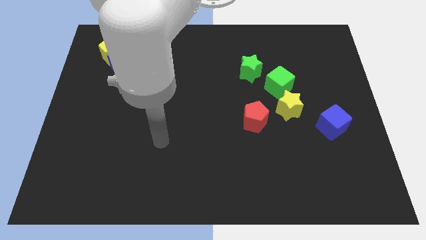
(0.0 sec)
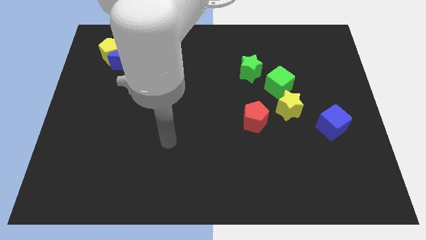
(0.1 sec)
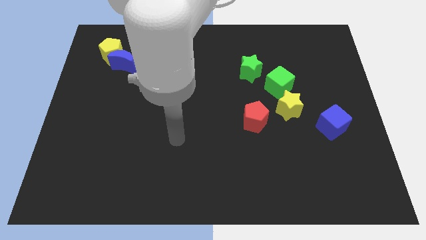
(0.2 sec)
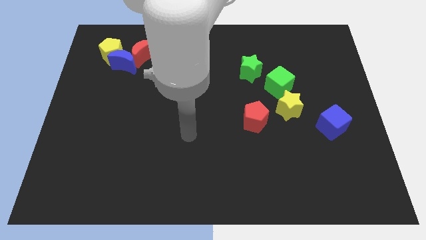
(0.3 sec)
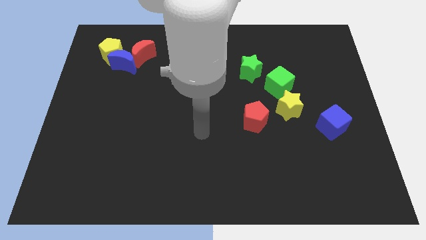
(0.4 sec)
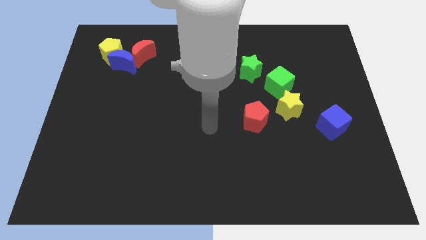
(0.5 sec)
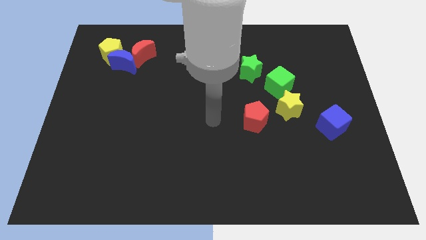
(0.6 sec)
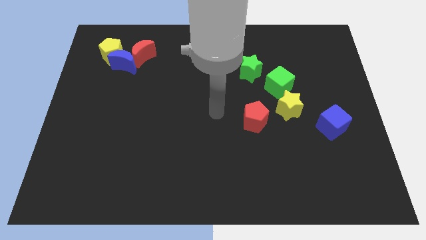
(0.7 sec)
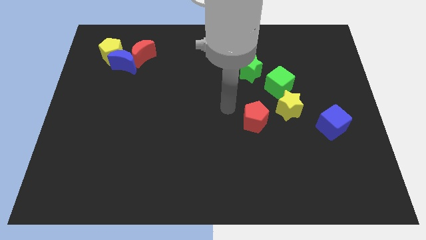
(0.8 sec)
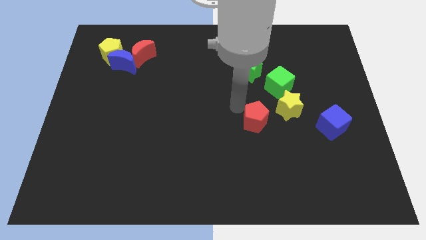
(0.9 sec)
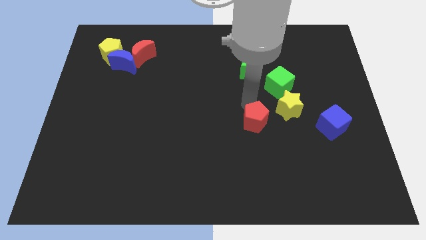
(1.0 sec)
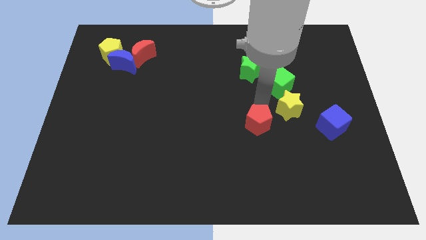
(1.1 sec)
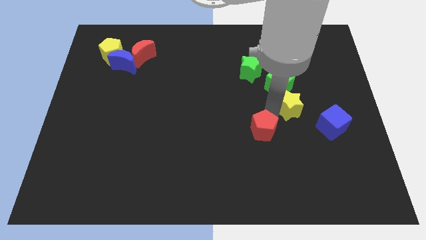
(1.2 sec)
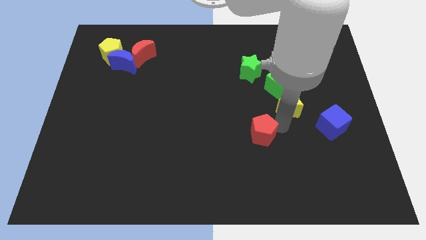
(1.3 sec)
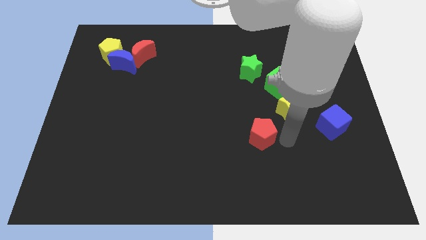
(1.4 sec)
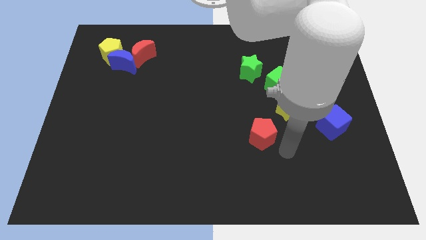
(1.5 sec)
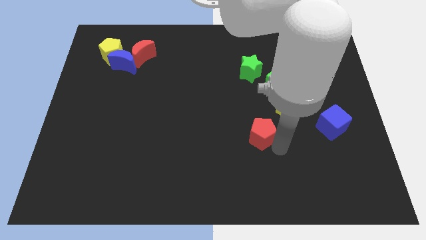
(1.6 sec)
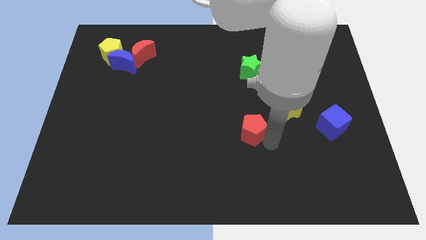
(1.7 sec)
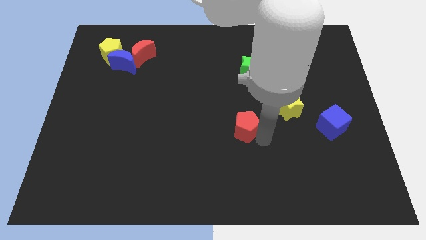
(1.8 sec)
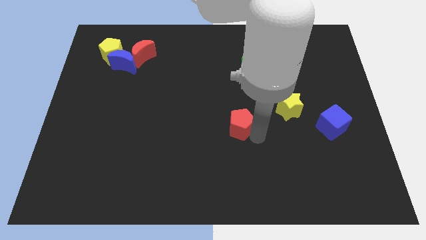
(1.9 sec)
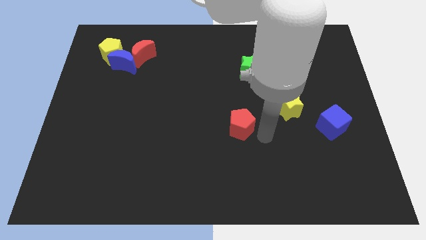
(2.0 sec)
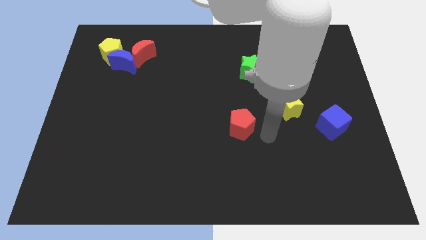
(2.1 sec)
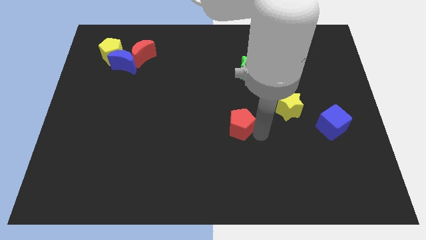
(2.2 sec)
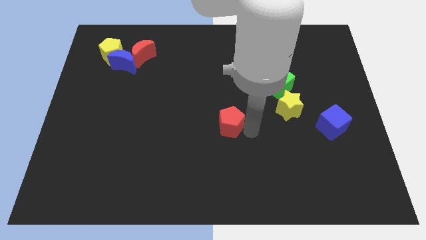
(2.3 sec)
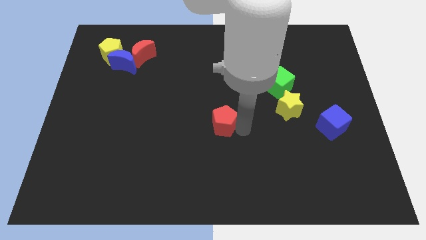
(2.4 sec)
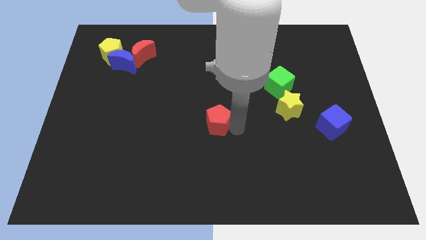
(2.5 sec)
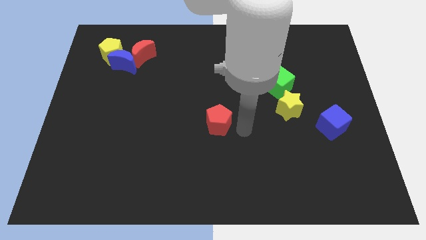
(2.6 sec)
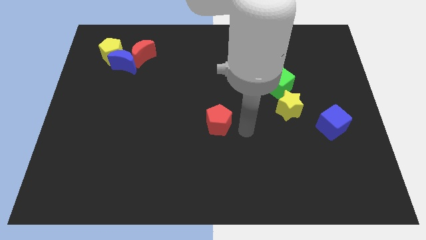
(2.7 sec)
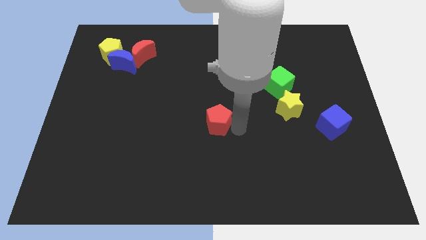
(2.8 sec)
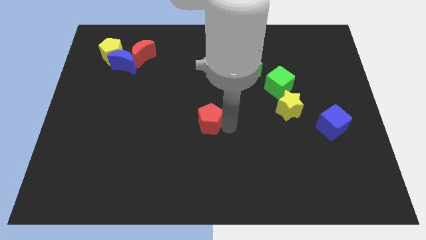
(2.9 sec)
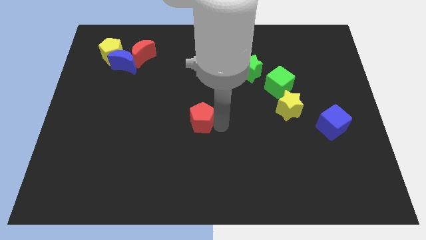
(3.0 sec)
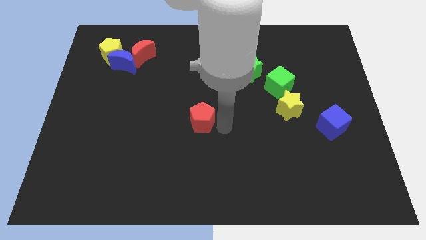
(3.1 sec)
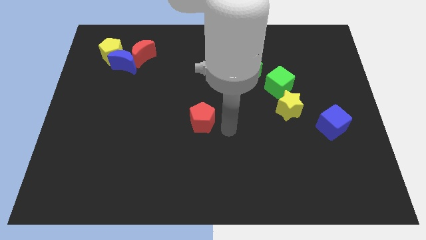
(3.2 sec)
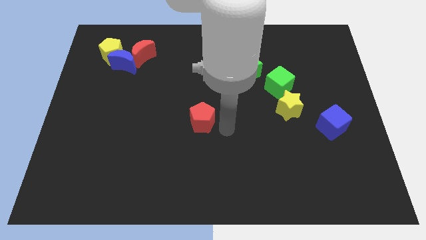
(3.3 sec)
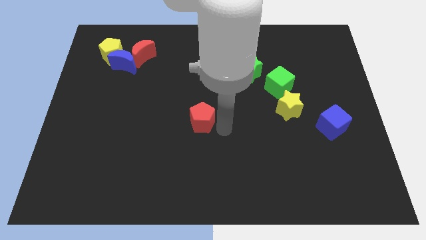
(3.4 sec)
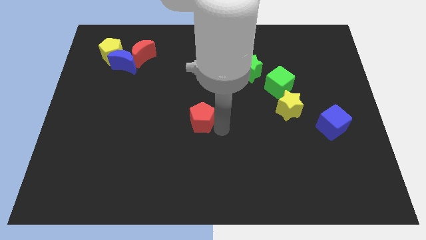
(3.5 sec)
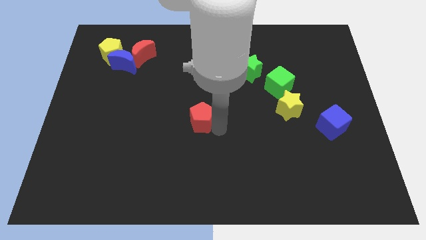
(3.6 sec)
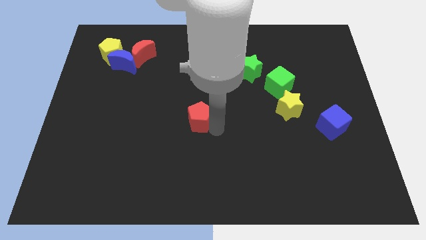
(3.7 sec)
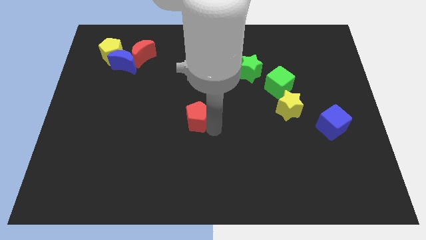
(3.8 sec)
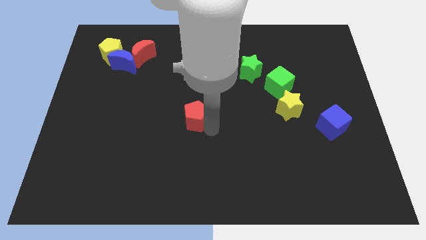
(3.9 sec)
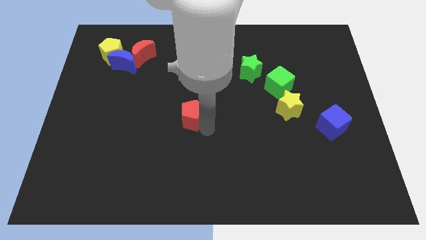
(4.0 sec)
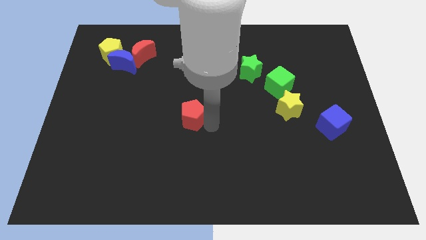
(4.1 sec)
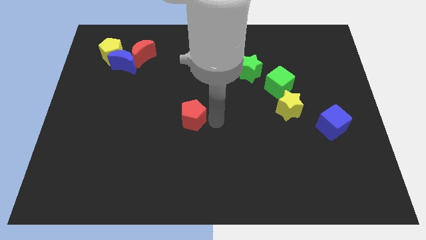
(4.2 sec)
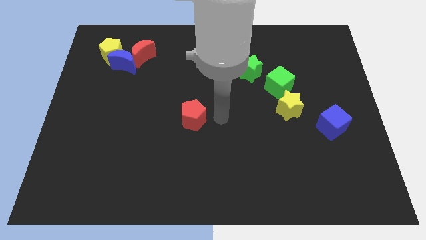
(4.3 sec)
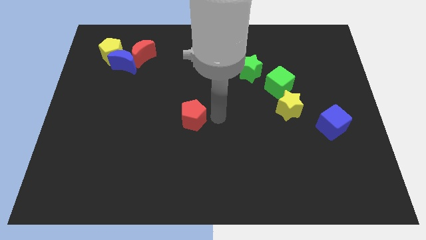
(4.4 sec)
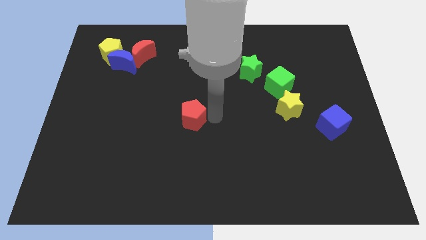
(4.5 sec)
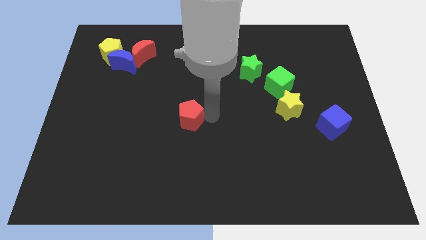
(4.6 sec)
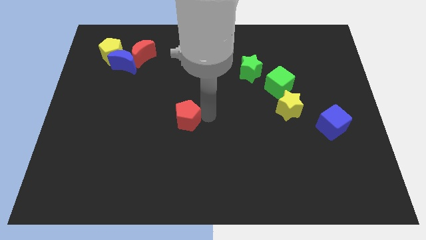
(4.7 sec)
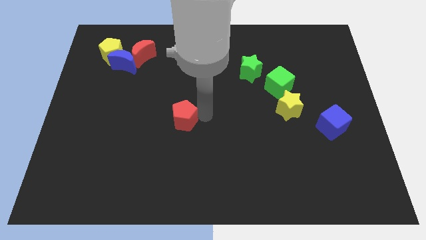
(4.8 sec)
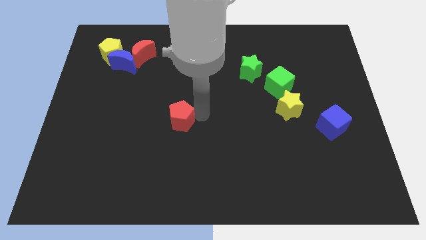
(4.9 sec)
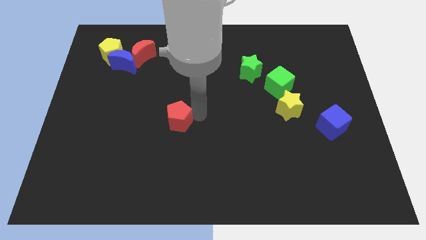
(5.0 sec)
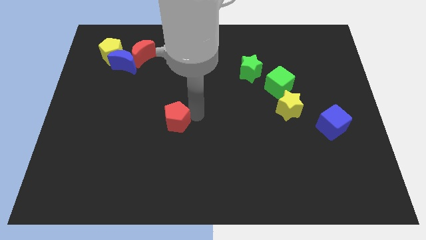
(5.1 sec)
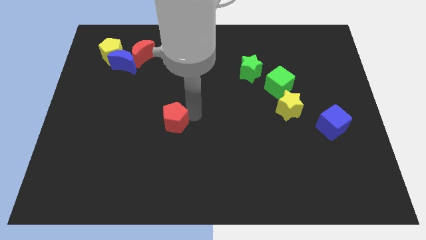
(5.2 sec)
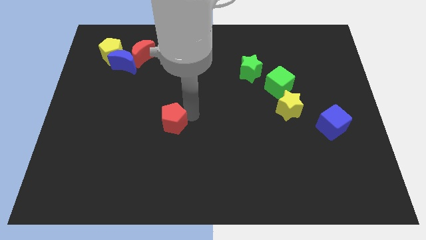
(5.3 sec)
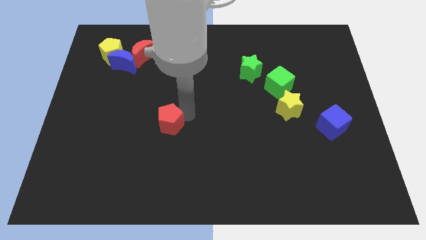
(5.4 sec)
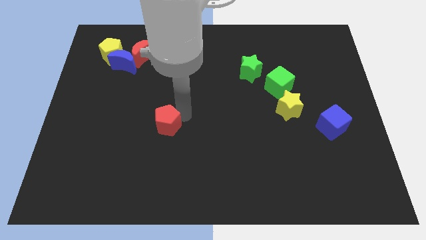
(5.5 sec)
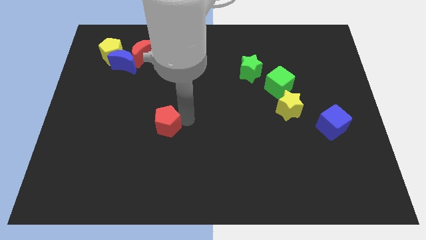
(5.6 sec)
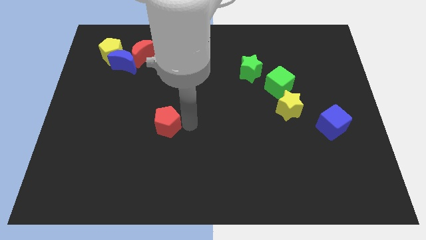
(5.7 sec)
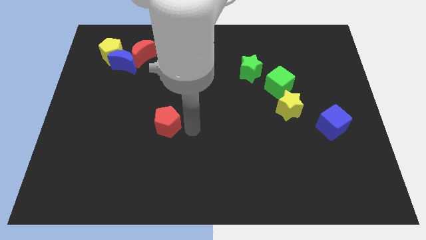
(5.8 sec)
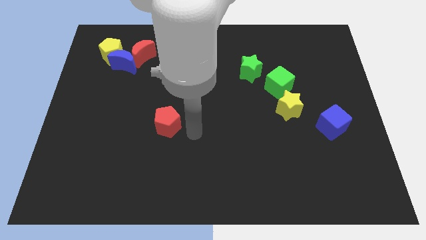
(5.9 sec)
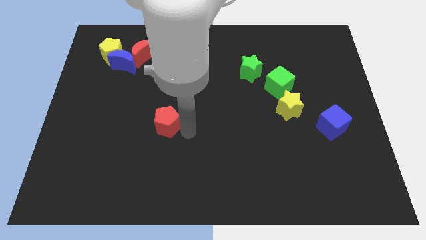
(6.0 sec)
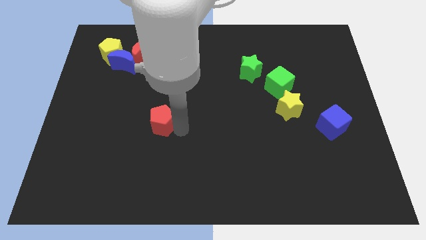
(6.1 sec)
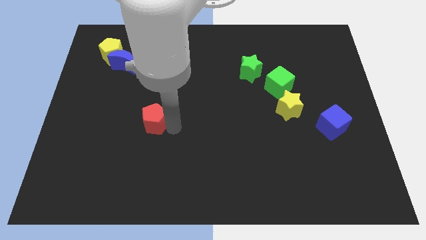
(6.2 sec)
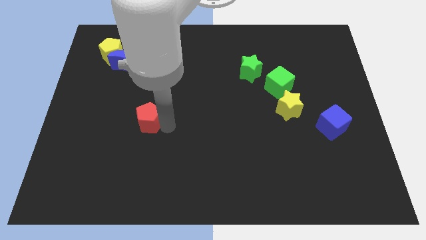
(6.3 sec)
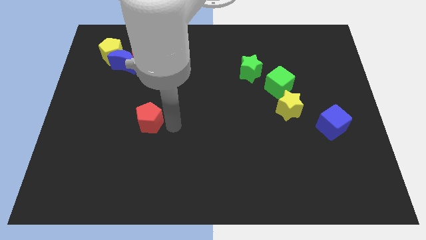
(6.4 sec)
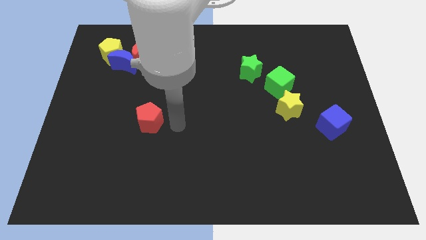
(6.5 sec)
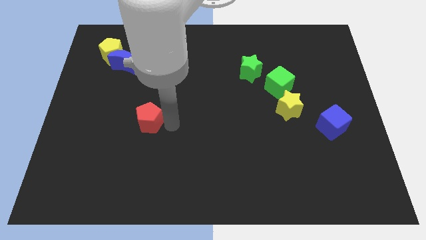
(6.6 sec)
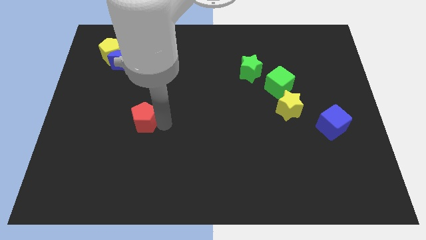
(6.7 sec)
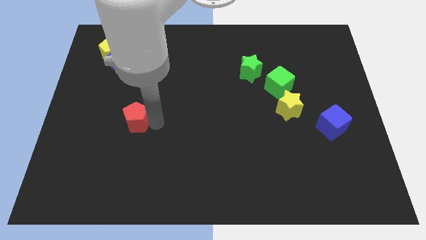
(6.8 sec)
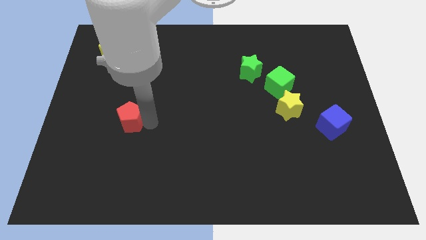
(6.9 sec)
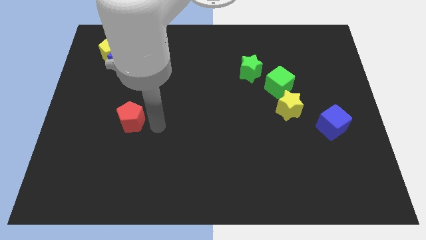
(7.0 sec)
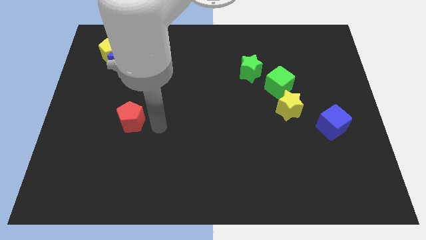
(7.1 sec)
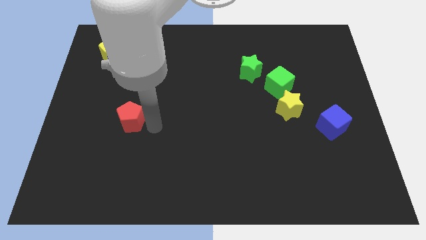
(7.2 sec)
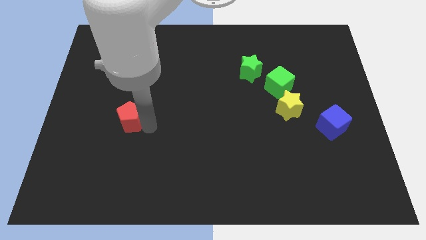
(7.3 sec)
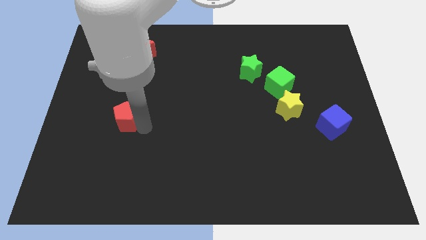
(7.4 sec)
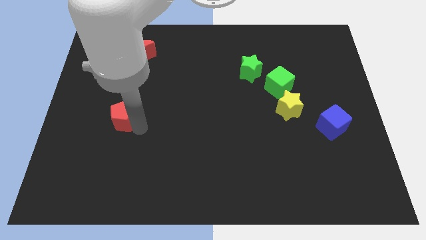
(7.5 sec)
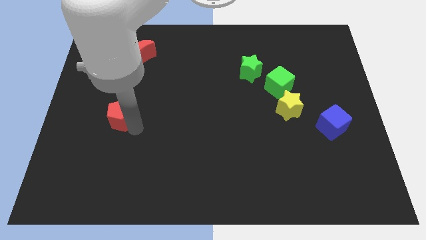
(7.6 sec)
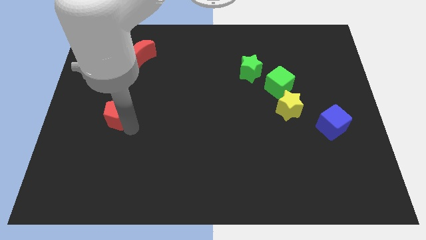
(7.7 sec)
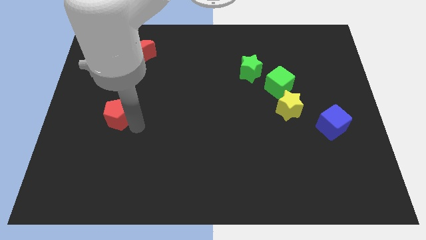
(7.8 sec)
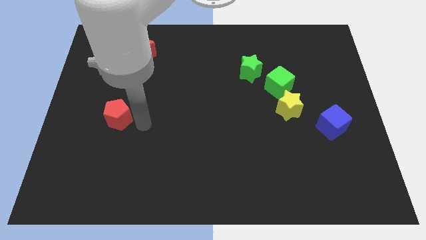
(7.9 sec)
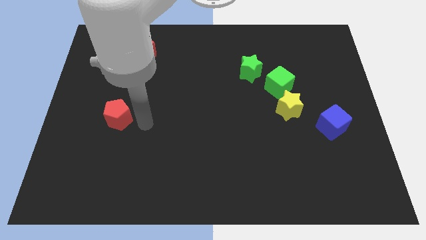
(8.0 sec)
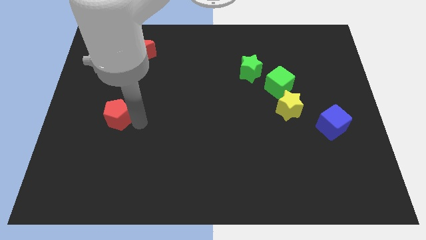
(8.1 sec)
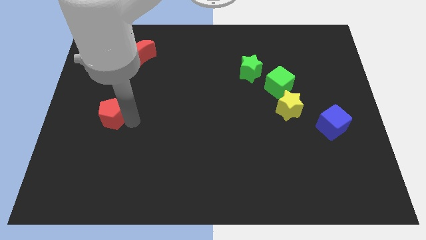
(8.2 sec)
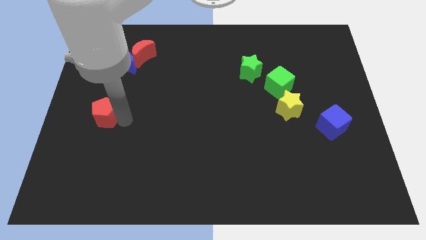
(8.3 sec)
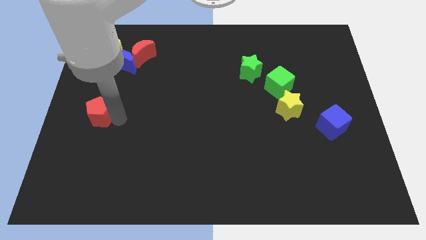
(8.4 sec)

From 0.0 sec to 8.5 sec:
put the red pentagon to the left side of the board
